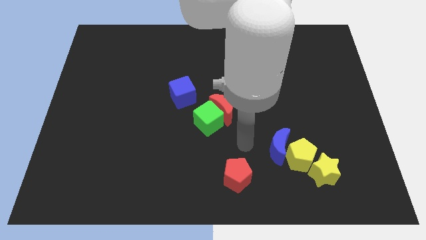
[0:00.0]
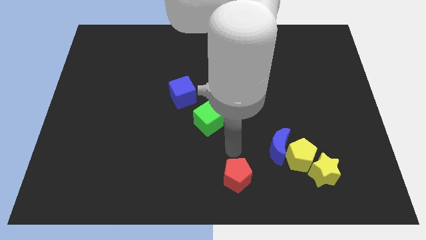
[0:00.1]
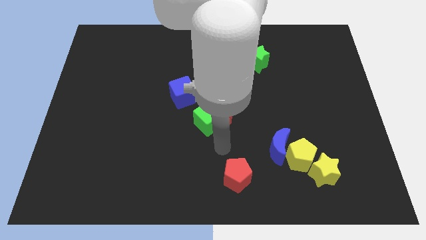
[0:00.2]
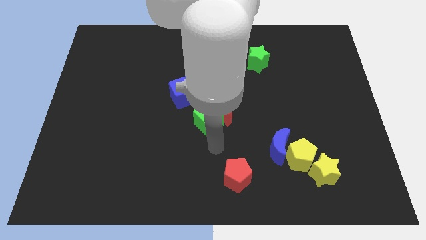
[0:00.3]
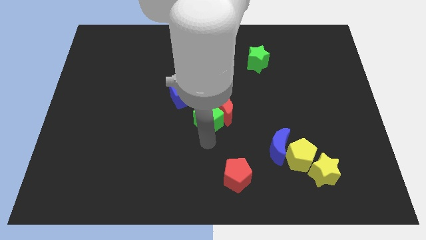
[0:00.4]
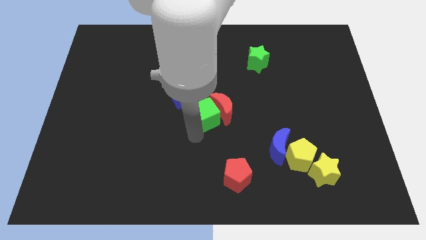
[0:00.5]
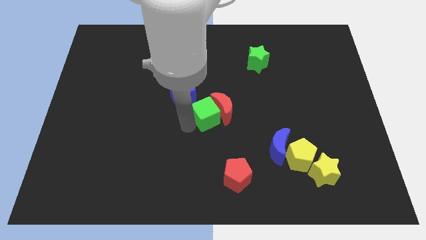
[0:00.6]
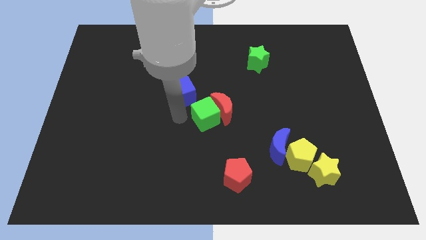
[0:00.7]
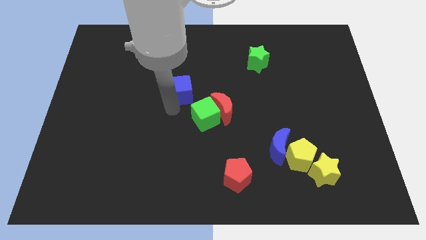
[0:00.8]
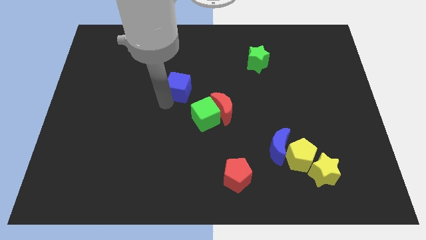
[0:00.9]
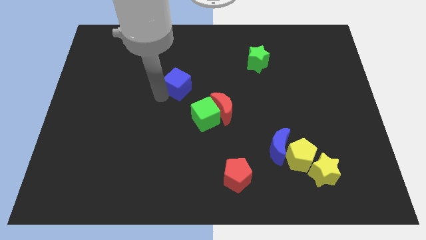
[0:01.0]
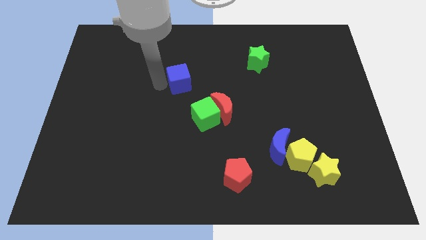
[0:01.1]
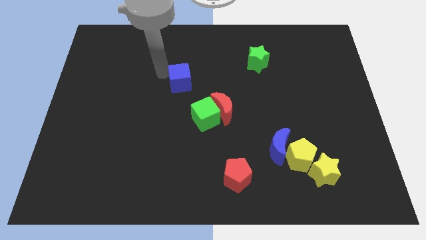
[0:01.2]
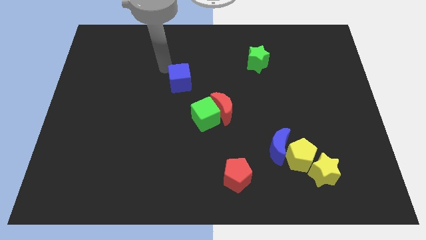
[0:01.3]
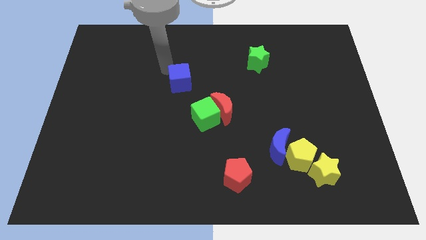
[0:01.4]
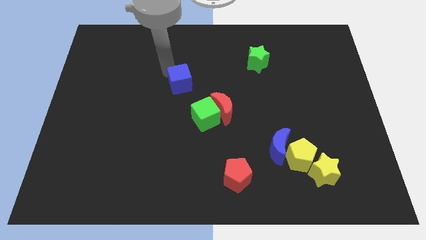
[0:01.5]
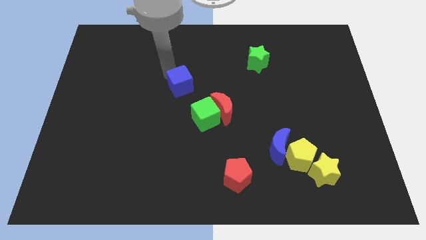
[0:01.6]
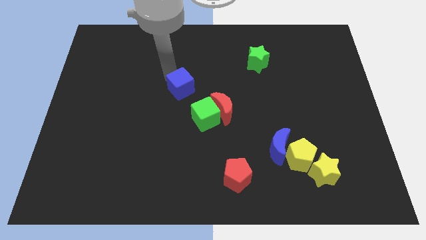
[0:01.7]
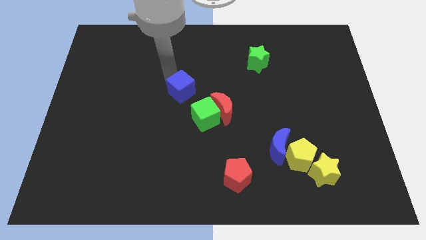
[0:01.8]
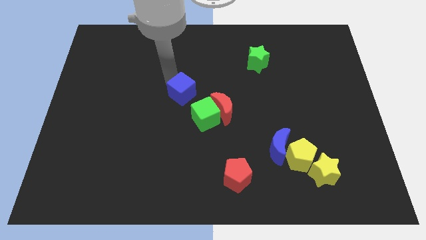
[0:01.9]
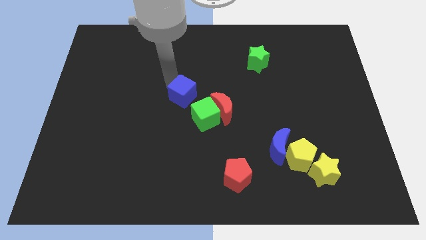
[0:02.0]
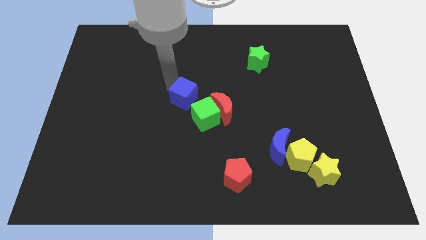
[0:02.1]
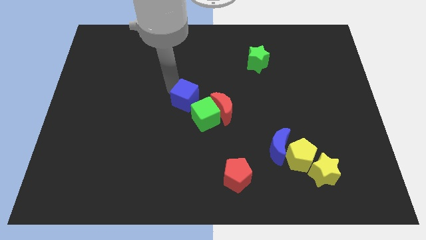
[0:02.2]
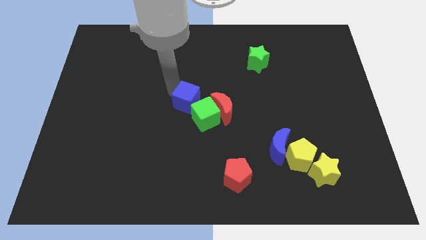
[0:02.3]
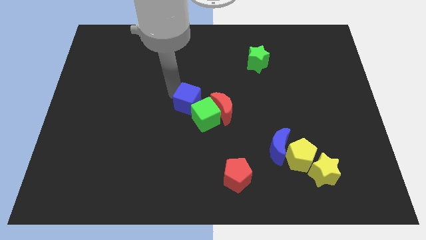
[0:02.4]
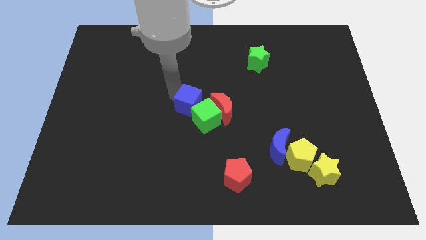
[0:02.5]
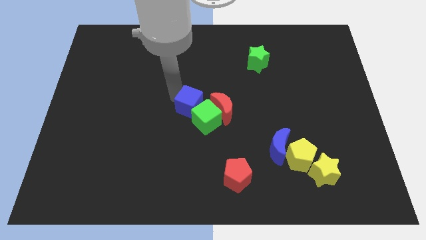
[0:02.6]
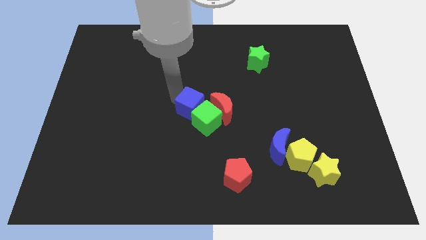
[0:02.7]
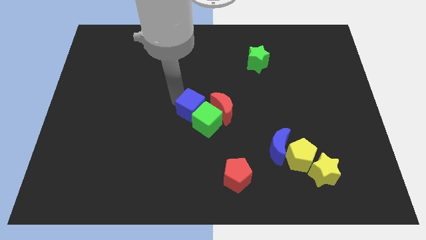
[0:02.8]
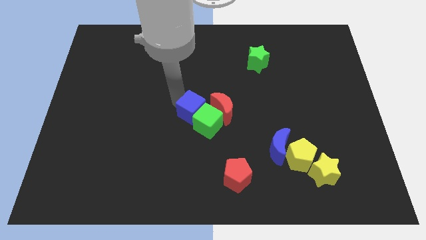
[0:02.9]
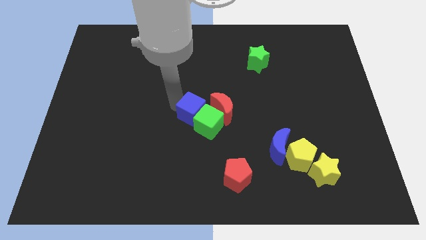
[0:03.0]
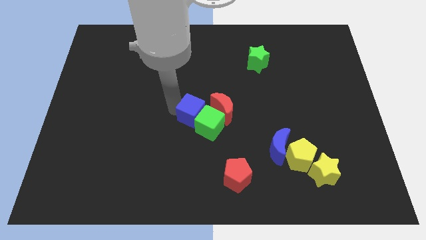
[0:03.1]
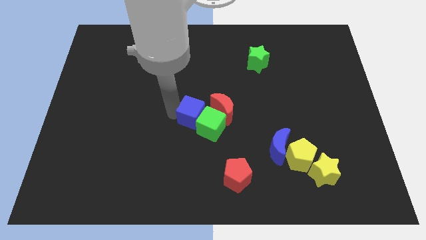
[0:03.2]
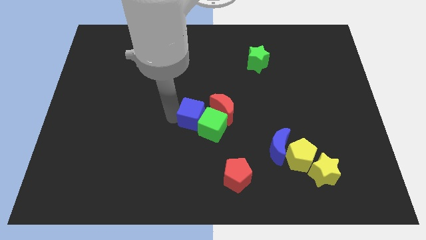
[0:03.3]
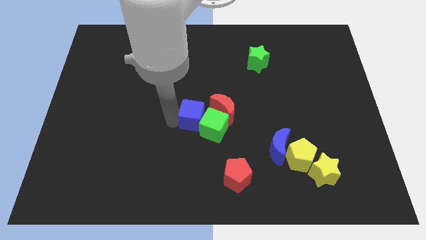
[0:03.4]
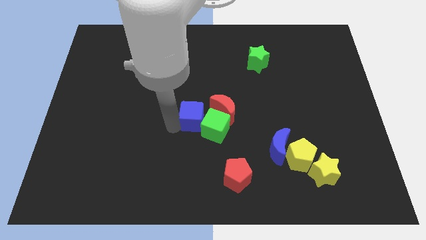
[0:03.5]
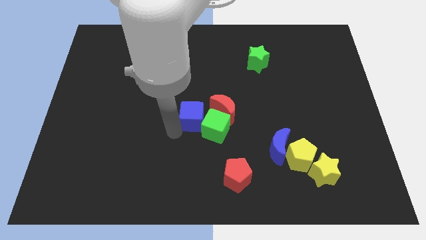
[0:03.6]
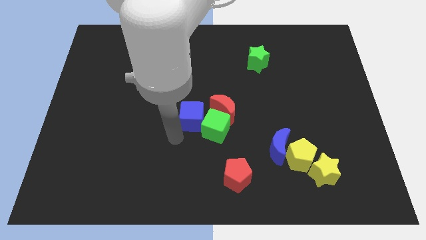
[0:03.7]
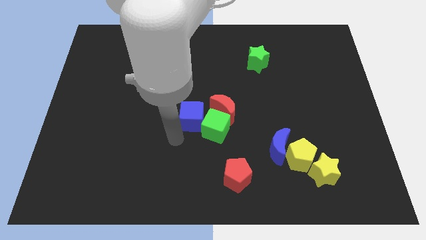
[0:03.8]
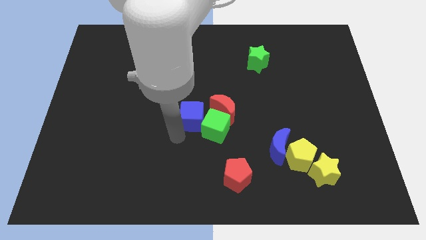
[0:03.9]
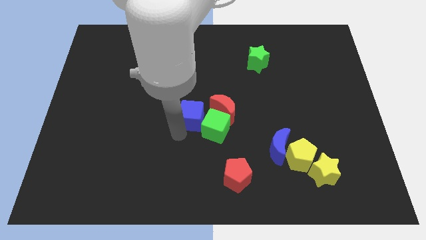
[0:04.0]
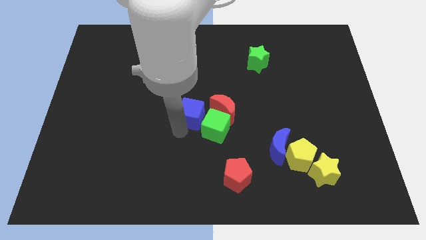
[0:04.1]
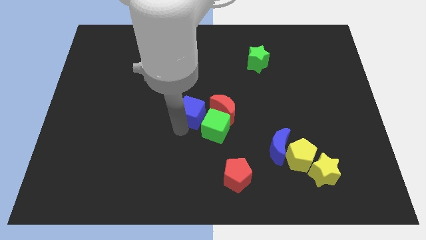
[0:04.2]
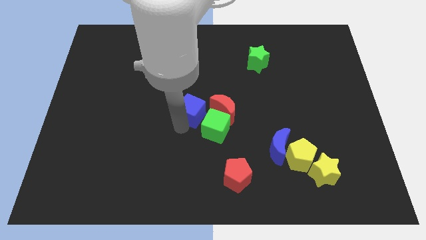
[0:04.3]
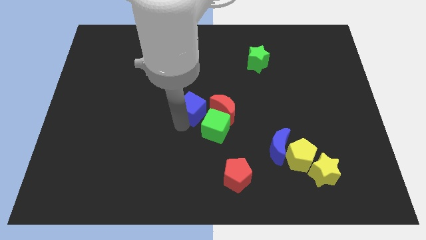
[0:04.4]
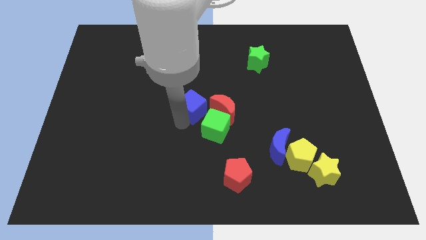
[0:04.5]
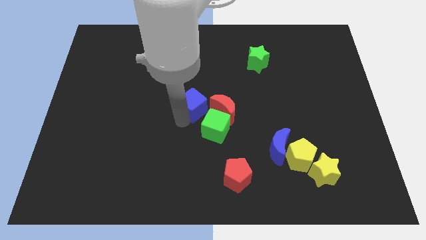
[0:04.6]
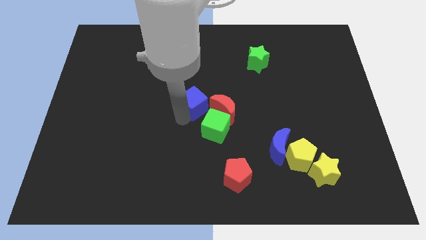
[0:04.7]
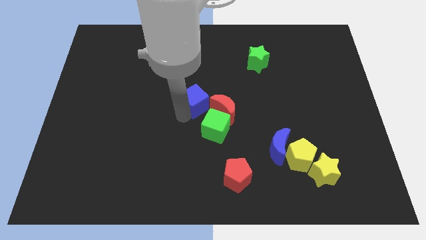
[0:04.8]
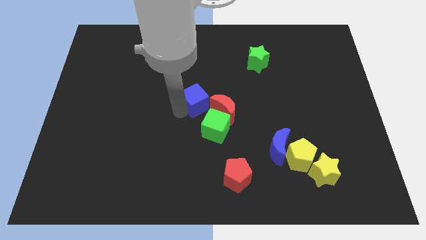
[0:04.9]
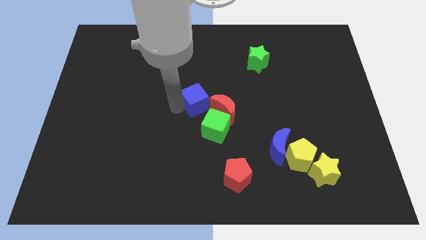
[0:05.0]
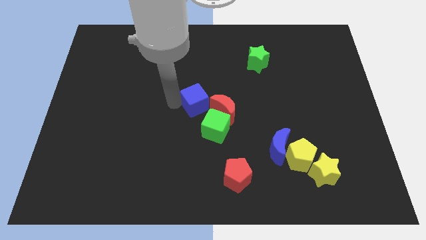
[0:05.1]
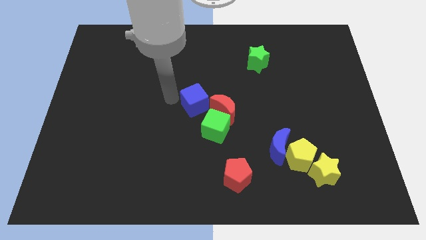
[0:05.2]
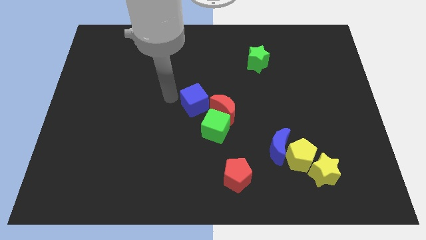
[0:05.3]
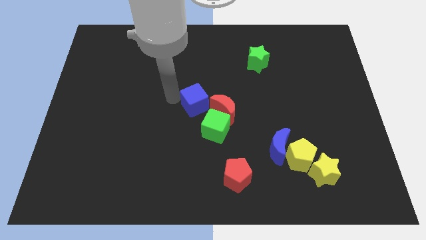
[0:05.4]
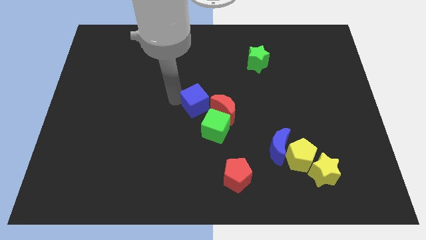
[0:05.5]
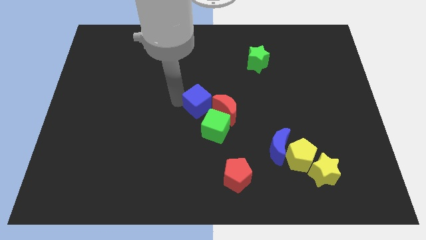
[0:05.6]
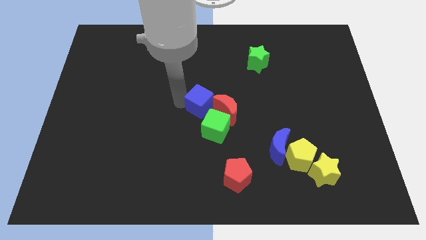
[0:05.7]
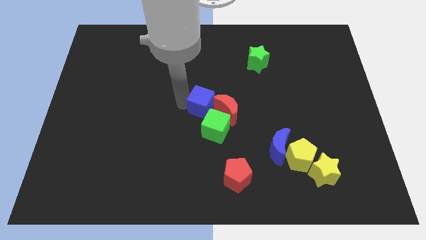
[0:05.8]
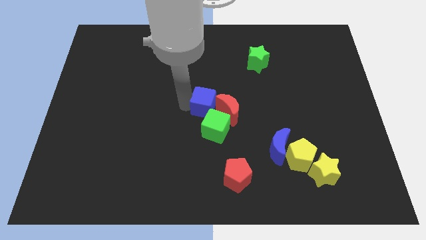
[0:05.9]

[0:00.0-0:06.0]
push the blue cube next to the red moon

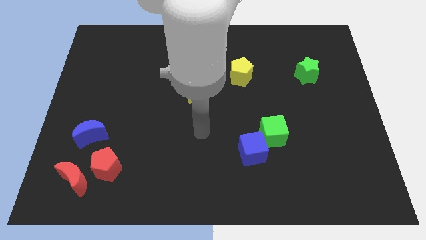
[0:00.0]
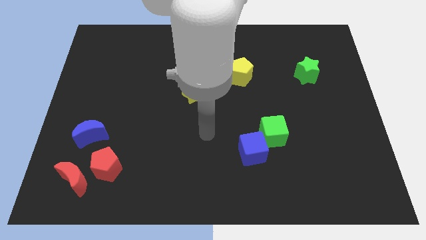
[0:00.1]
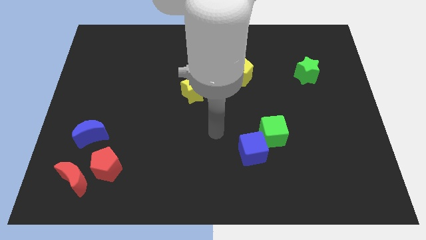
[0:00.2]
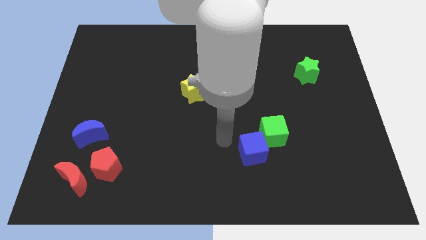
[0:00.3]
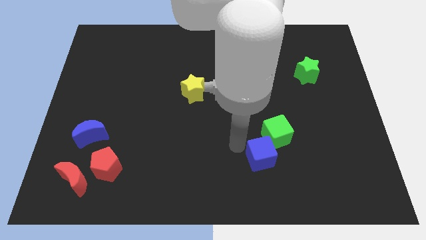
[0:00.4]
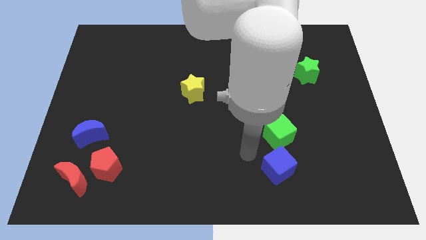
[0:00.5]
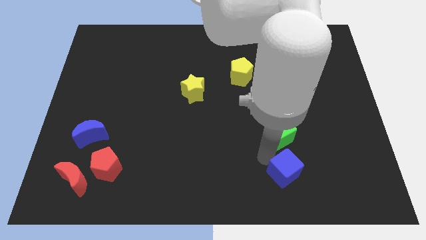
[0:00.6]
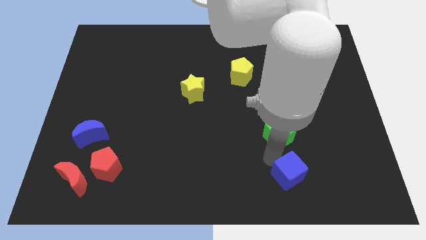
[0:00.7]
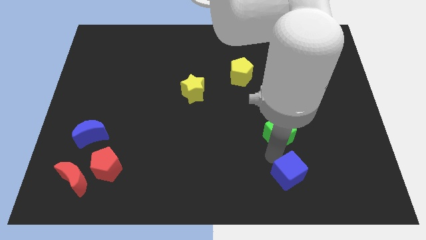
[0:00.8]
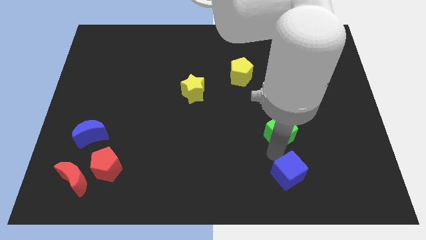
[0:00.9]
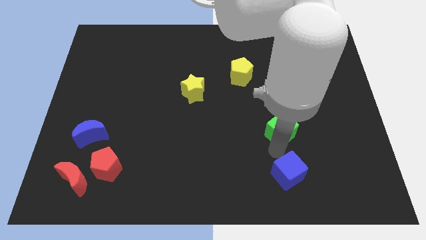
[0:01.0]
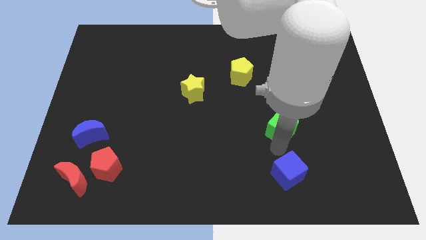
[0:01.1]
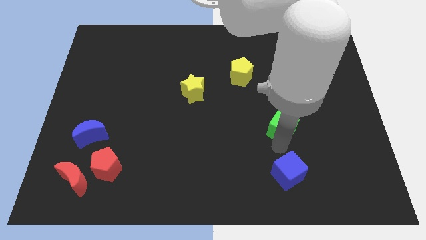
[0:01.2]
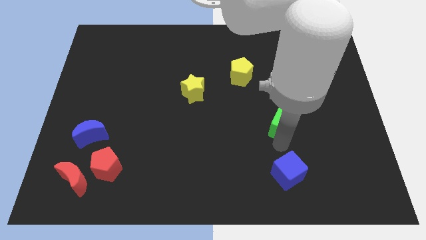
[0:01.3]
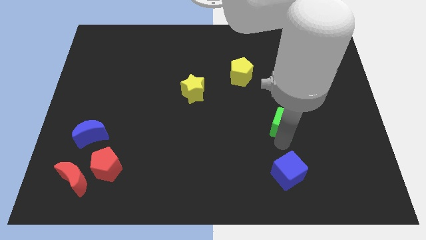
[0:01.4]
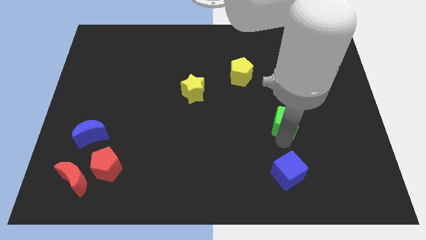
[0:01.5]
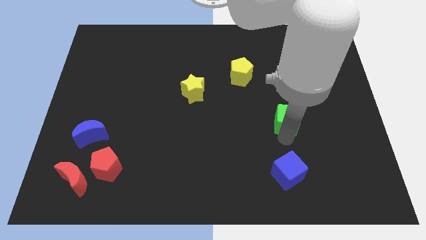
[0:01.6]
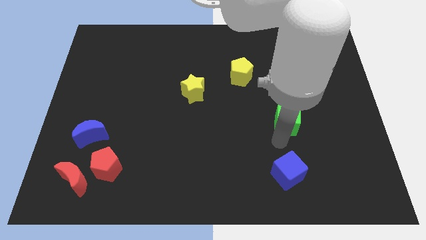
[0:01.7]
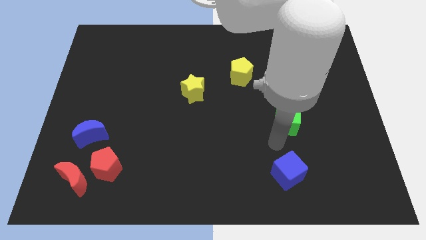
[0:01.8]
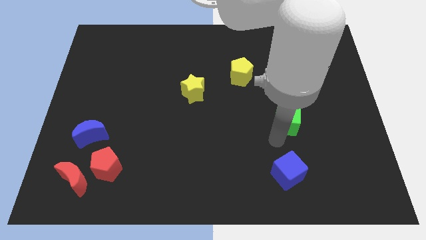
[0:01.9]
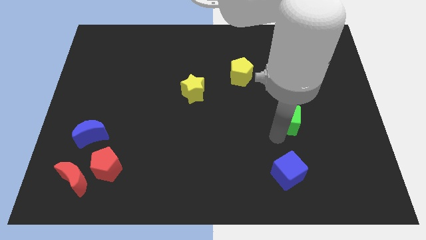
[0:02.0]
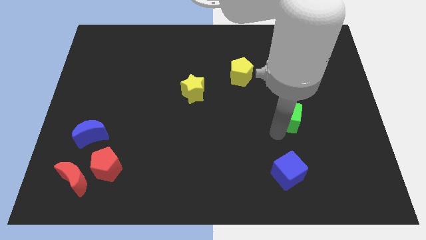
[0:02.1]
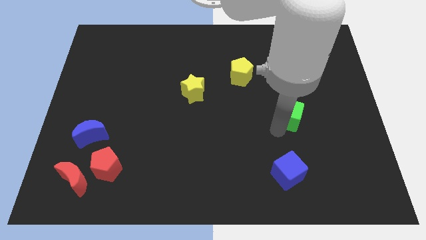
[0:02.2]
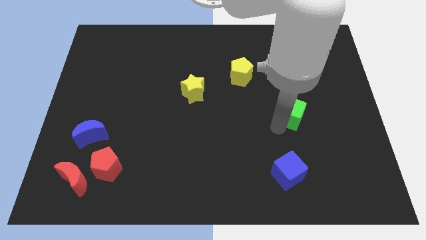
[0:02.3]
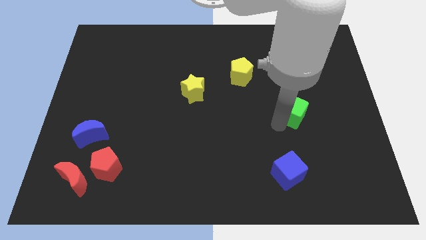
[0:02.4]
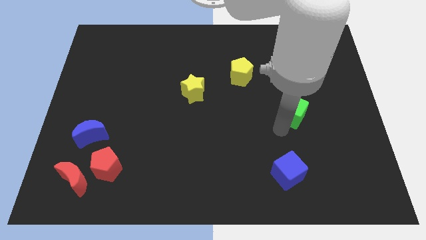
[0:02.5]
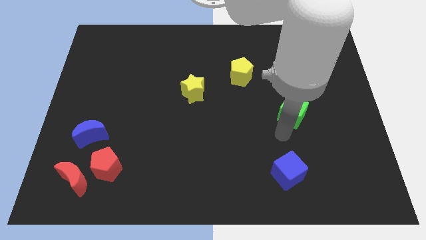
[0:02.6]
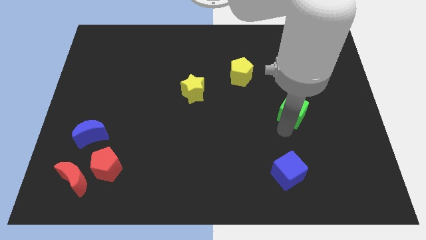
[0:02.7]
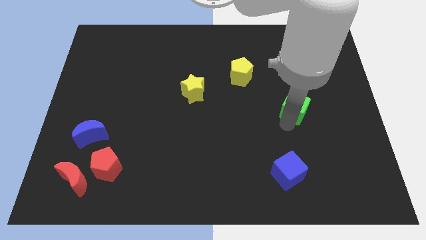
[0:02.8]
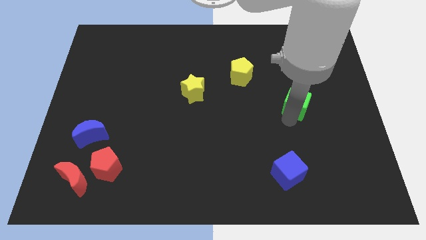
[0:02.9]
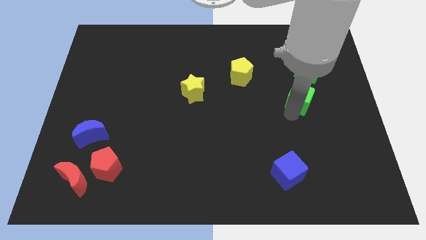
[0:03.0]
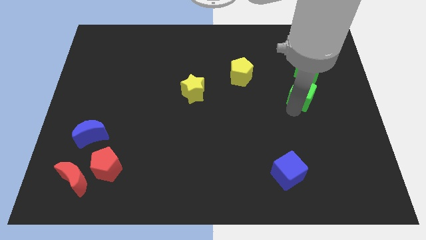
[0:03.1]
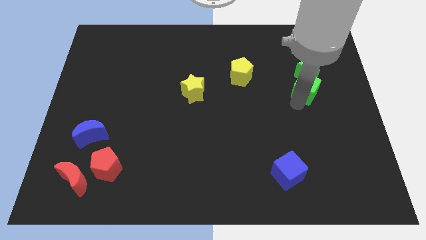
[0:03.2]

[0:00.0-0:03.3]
put the green cube to the green star
